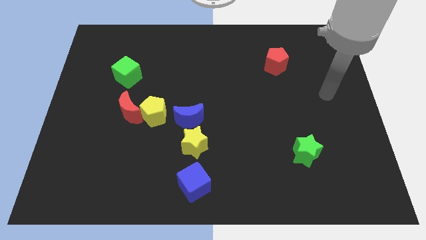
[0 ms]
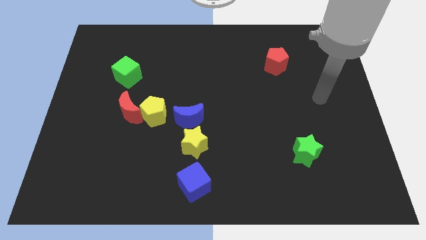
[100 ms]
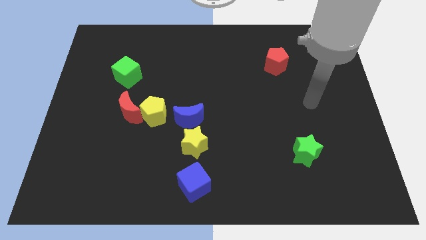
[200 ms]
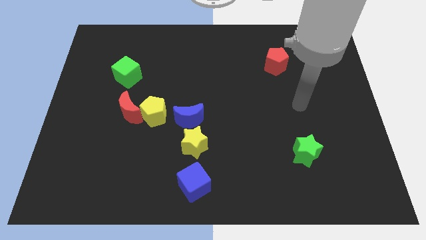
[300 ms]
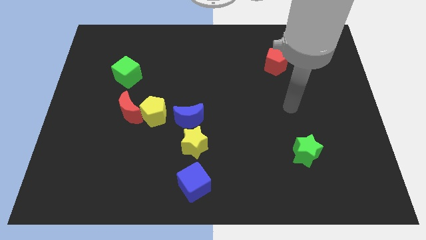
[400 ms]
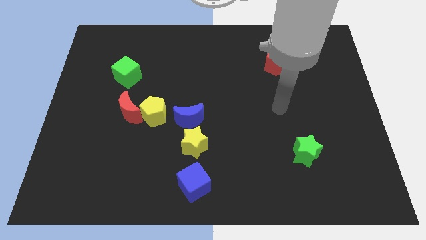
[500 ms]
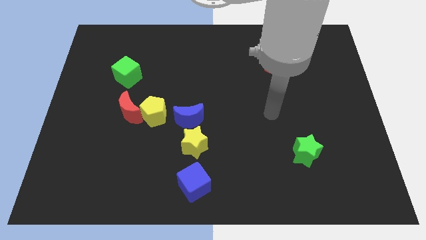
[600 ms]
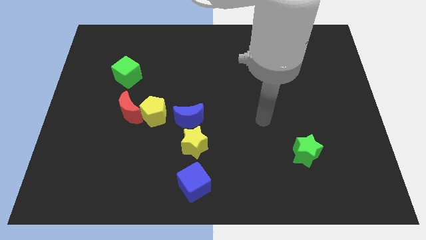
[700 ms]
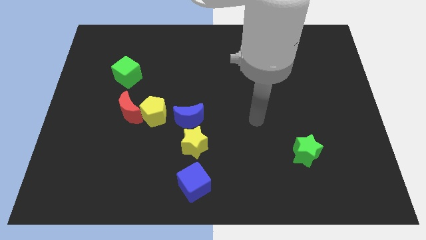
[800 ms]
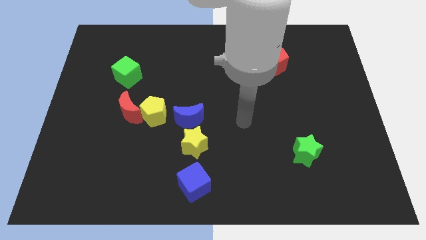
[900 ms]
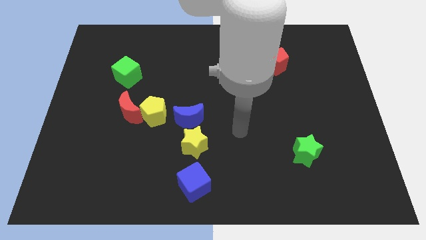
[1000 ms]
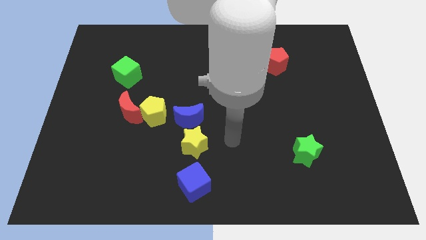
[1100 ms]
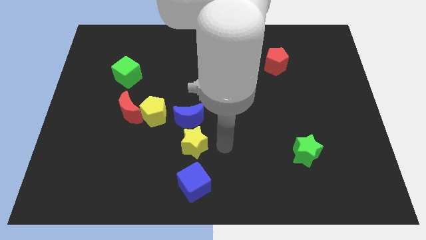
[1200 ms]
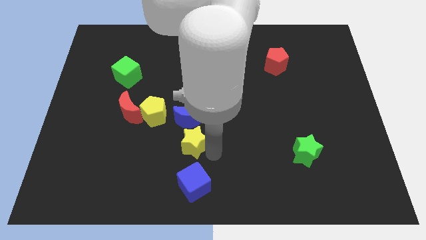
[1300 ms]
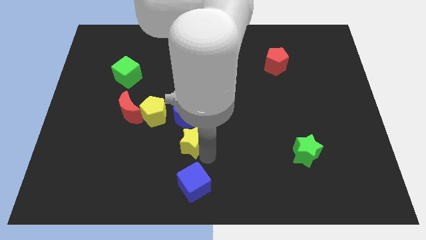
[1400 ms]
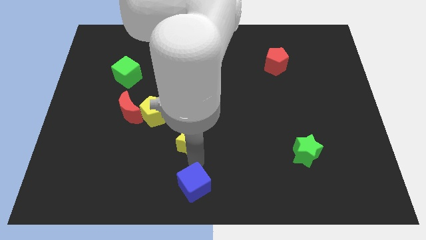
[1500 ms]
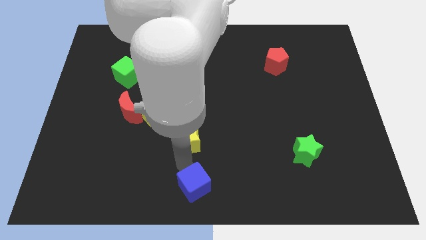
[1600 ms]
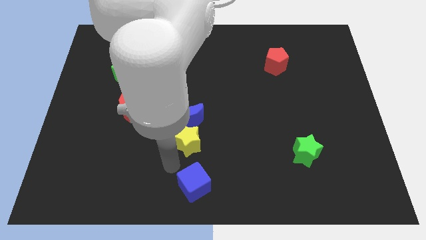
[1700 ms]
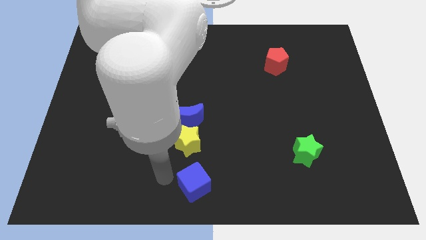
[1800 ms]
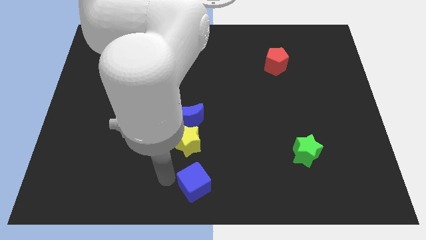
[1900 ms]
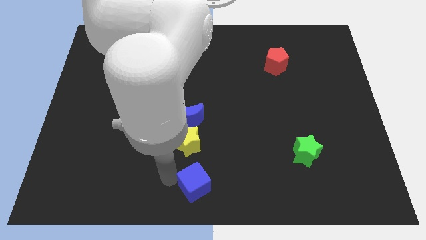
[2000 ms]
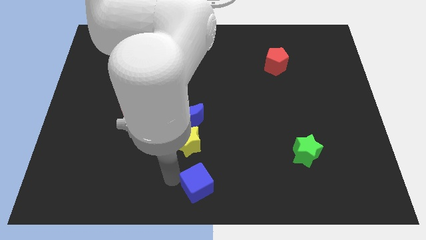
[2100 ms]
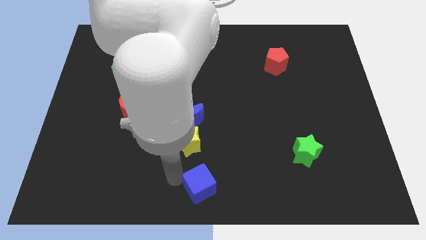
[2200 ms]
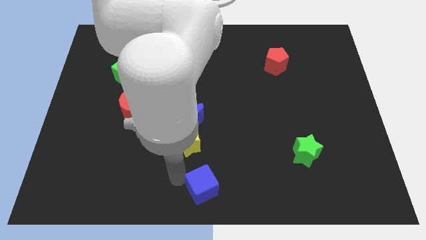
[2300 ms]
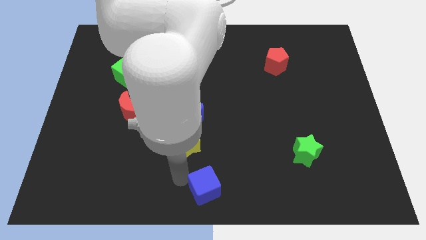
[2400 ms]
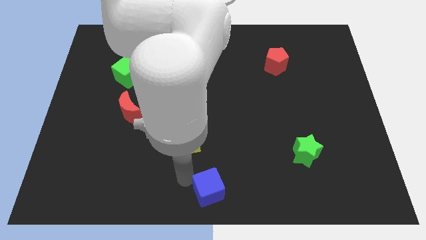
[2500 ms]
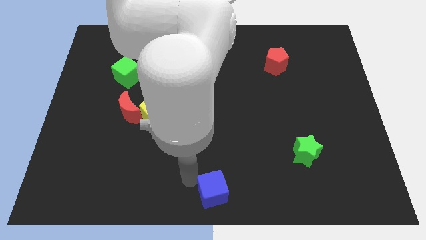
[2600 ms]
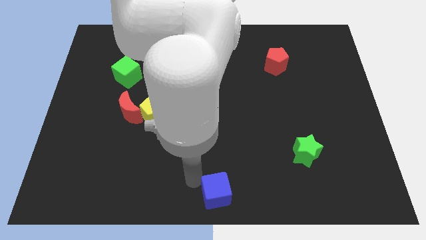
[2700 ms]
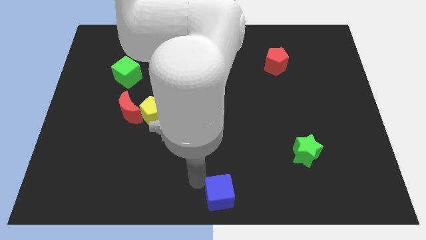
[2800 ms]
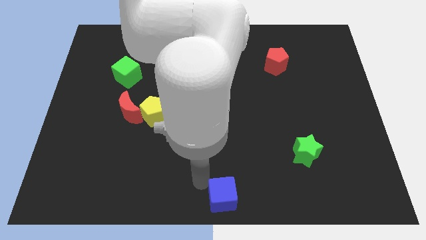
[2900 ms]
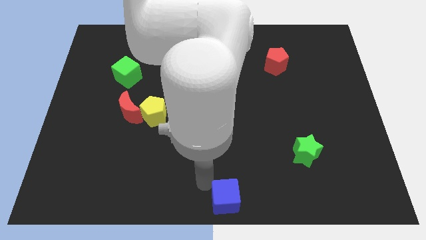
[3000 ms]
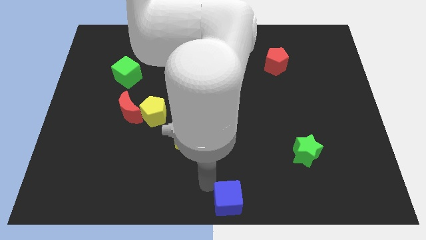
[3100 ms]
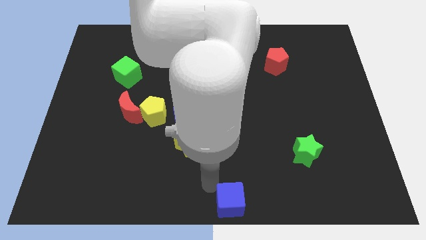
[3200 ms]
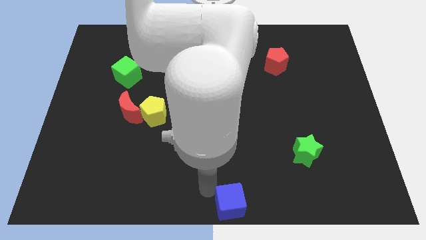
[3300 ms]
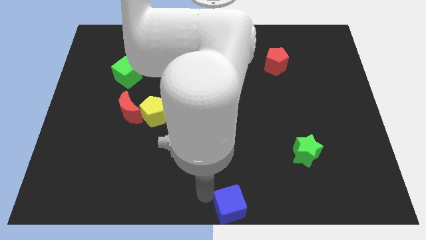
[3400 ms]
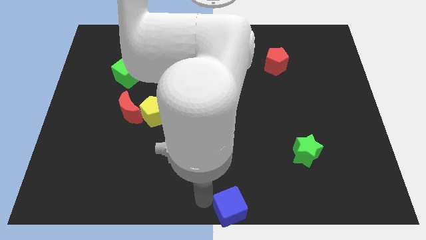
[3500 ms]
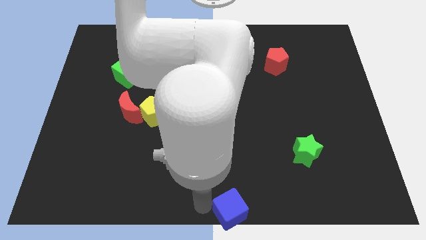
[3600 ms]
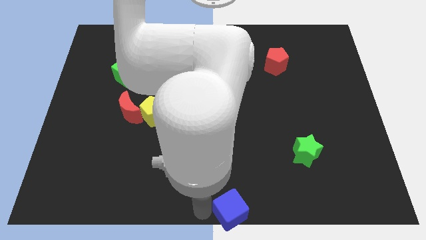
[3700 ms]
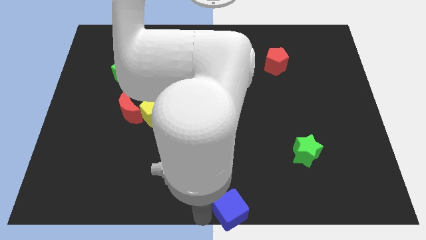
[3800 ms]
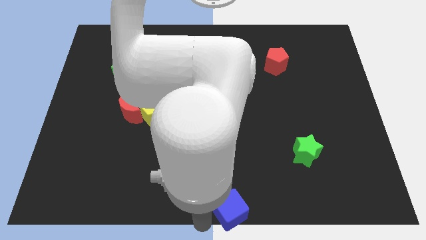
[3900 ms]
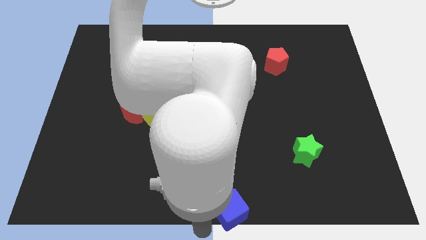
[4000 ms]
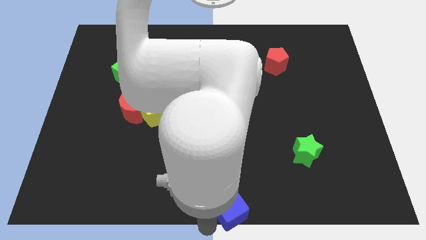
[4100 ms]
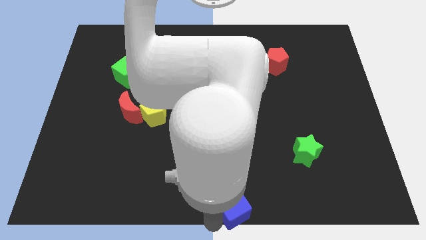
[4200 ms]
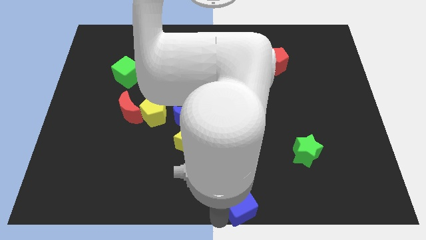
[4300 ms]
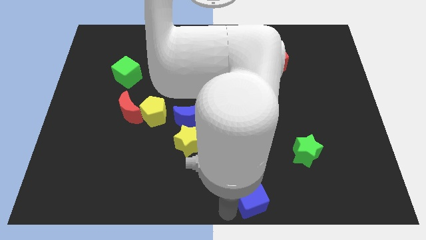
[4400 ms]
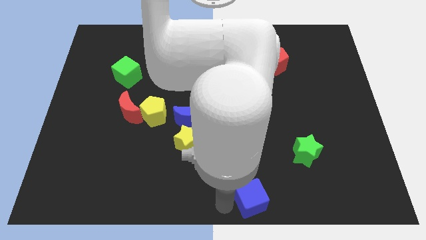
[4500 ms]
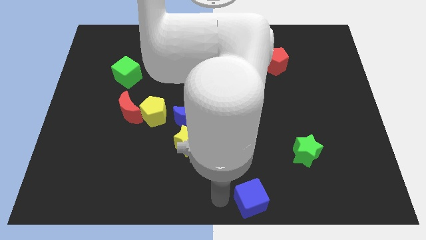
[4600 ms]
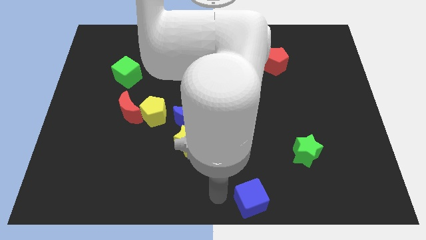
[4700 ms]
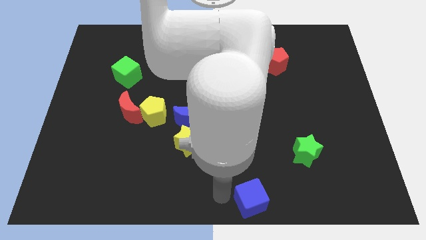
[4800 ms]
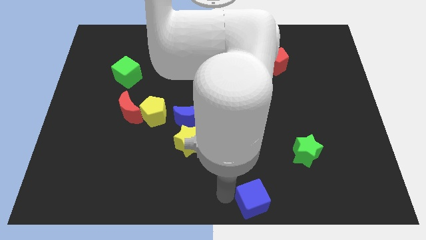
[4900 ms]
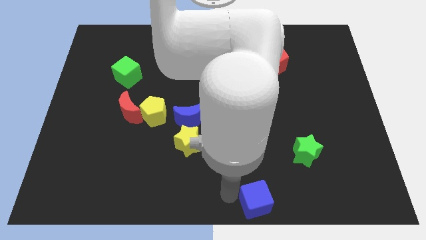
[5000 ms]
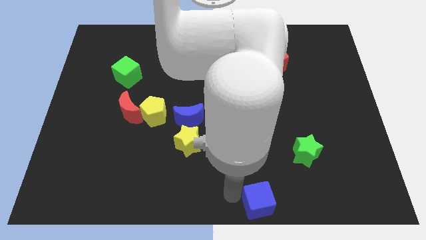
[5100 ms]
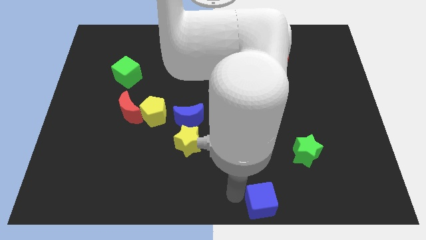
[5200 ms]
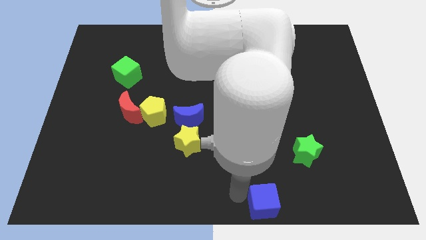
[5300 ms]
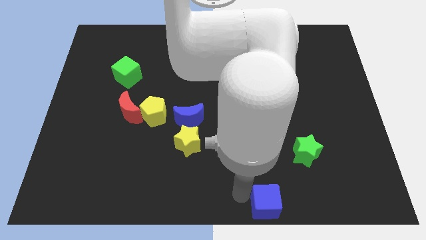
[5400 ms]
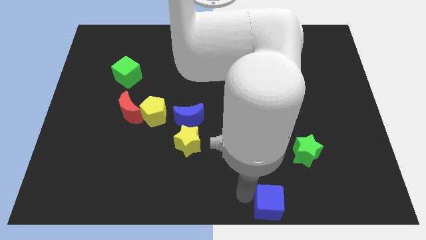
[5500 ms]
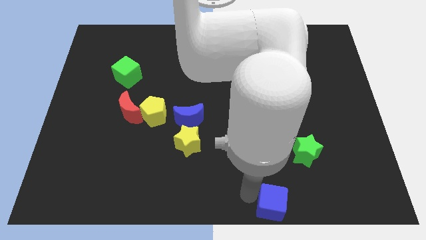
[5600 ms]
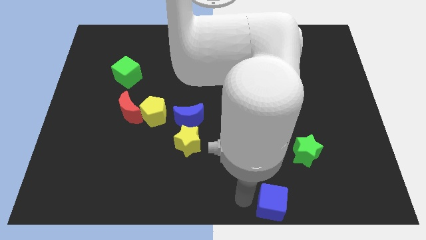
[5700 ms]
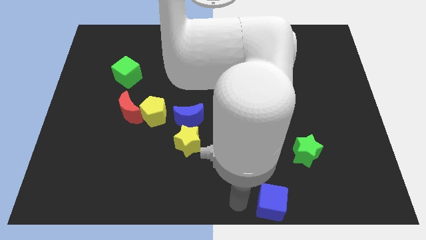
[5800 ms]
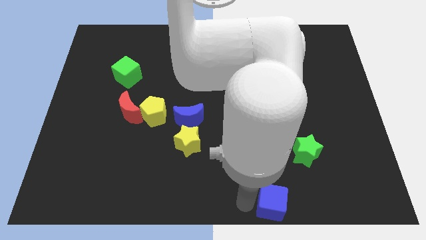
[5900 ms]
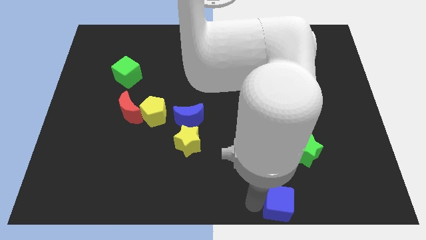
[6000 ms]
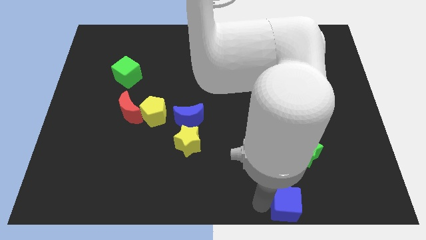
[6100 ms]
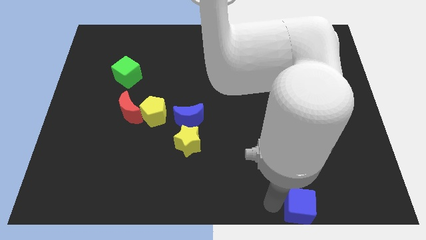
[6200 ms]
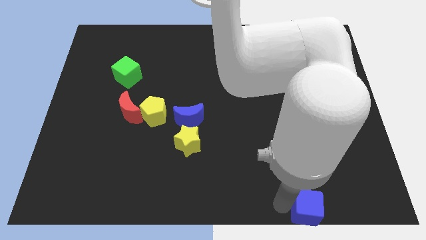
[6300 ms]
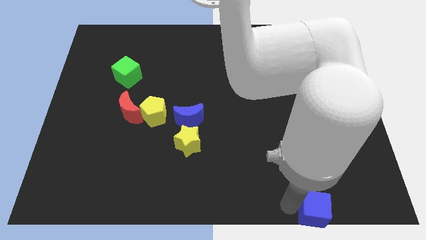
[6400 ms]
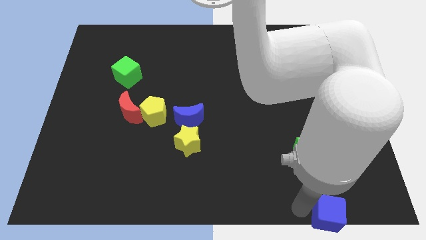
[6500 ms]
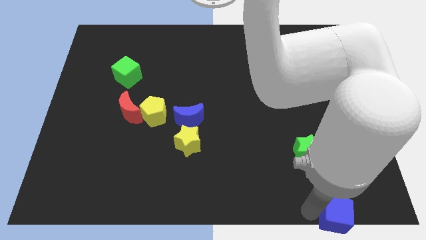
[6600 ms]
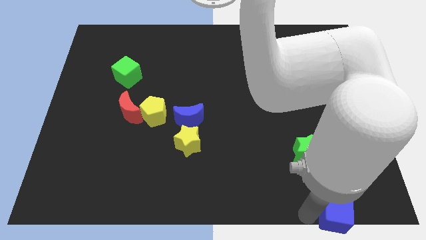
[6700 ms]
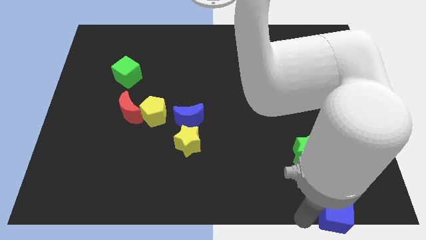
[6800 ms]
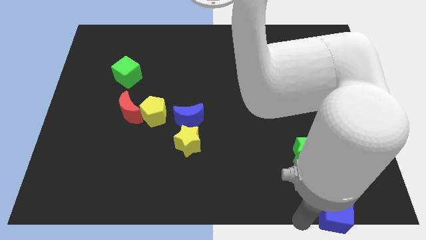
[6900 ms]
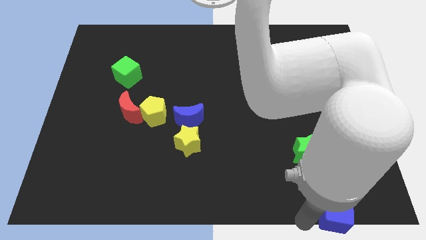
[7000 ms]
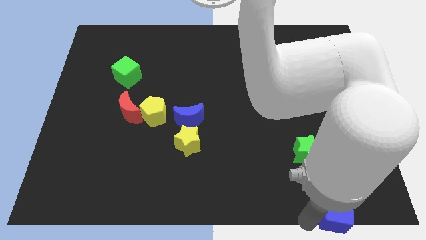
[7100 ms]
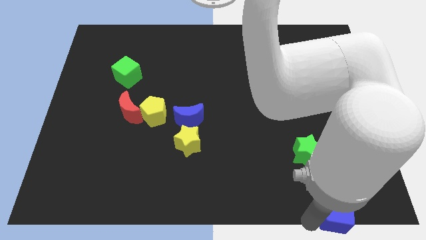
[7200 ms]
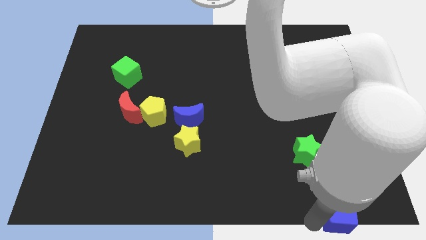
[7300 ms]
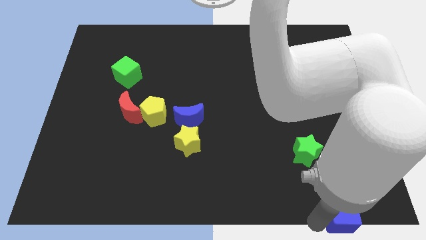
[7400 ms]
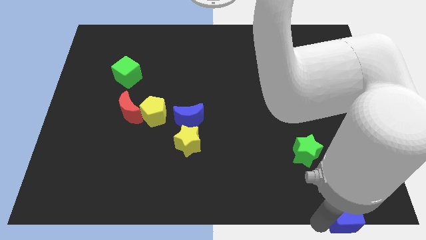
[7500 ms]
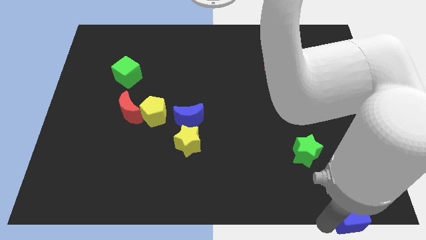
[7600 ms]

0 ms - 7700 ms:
slide the blue cube to the bottom right corner

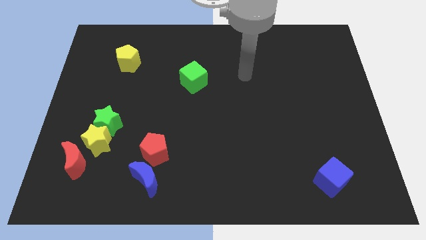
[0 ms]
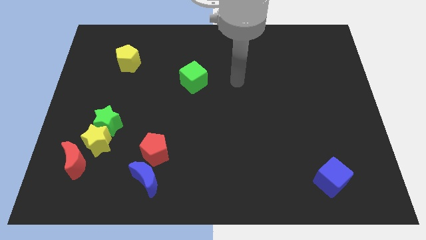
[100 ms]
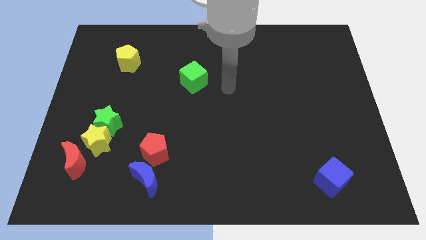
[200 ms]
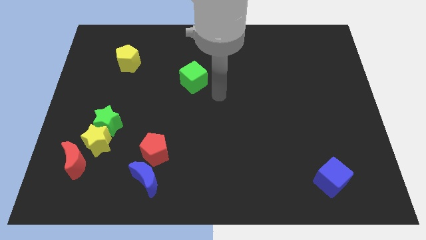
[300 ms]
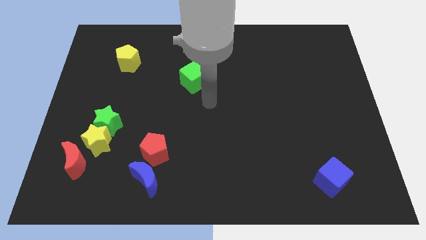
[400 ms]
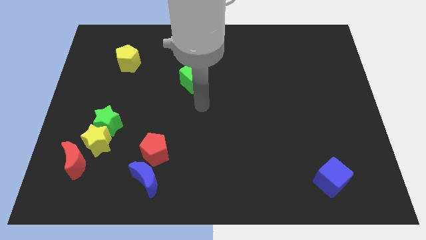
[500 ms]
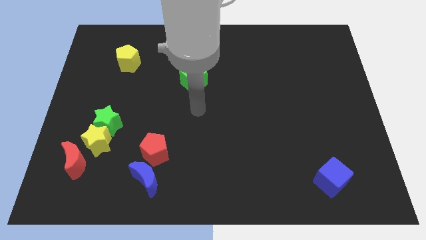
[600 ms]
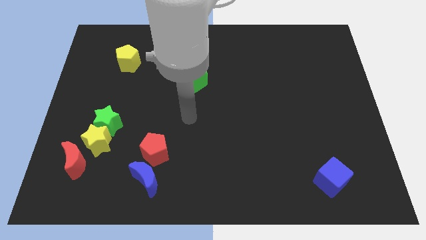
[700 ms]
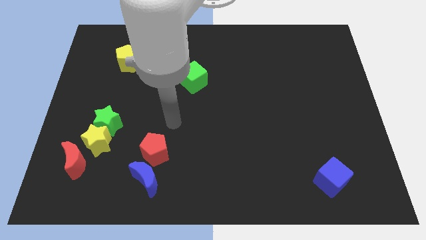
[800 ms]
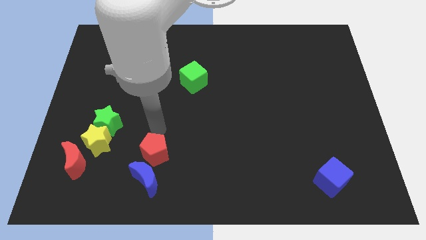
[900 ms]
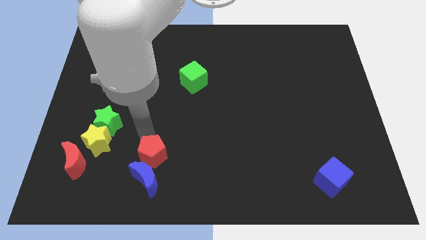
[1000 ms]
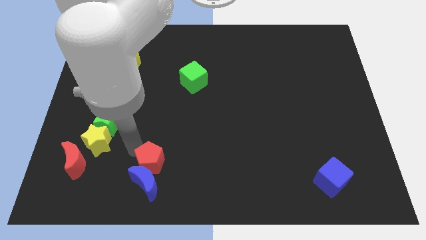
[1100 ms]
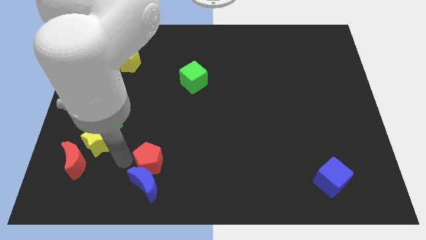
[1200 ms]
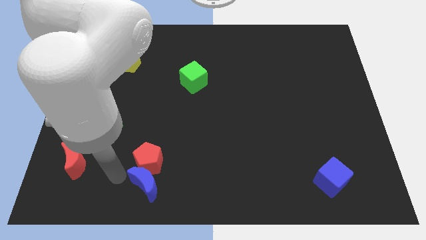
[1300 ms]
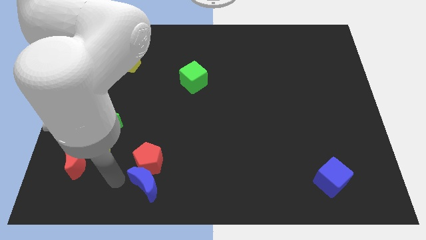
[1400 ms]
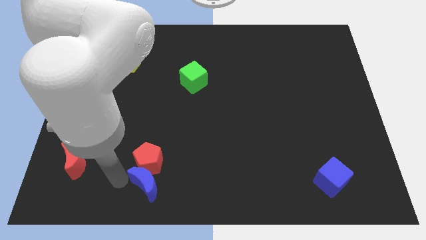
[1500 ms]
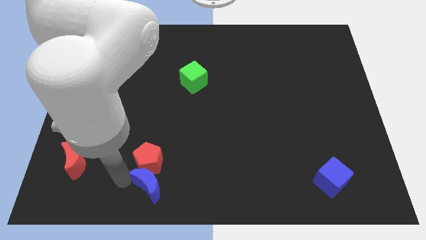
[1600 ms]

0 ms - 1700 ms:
move the blue moon to the bottom
